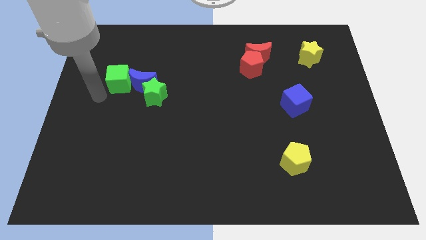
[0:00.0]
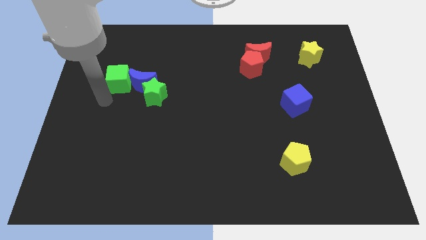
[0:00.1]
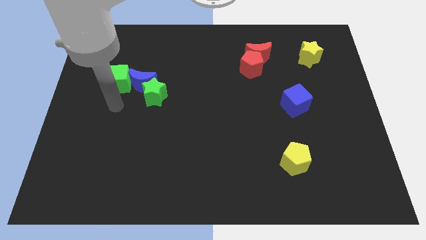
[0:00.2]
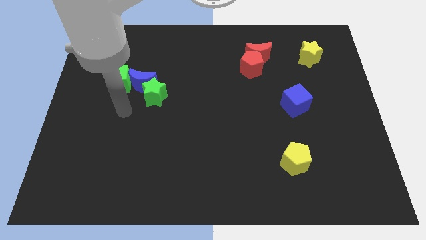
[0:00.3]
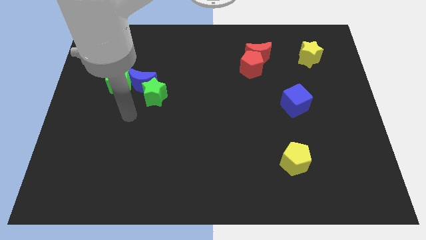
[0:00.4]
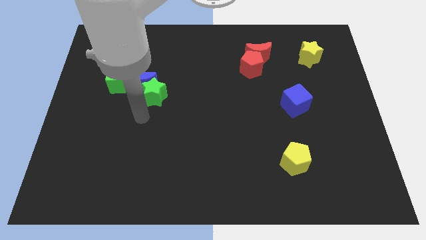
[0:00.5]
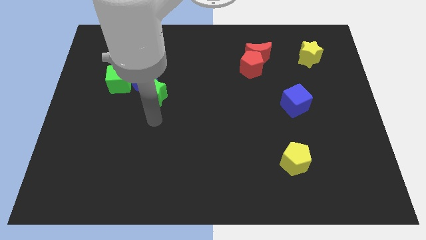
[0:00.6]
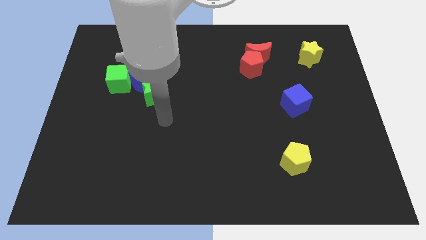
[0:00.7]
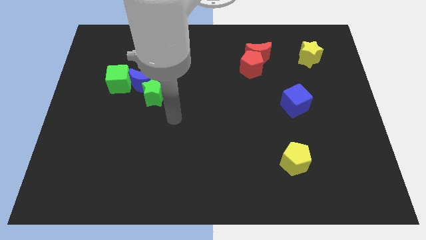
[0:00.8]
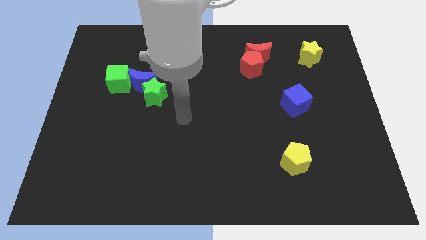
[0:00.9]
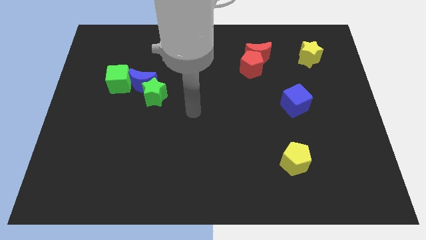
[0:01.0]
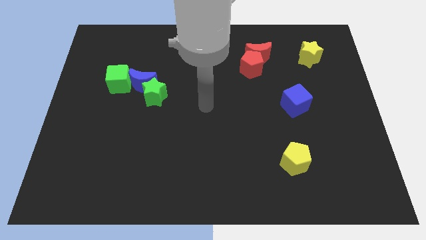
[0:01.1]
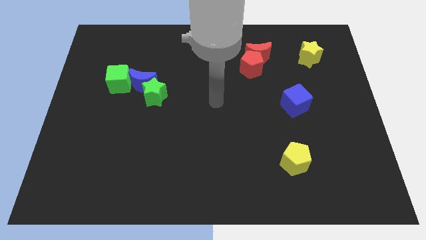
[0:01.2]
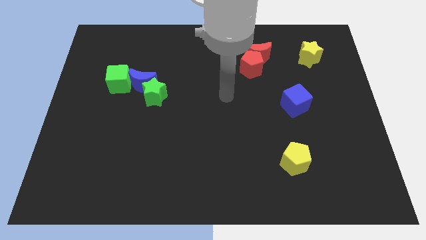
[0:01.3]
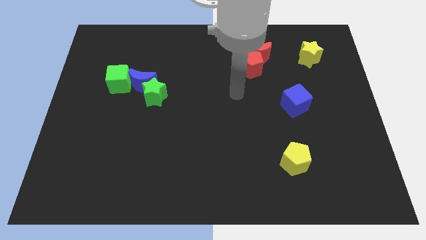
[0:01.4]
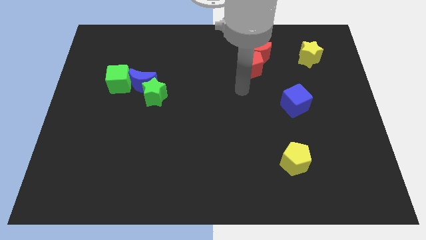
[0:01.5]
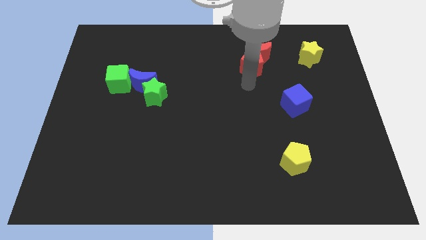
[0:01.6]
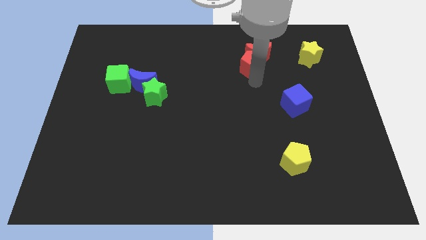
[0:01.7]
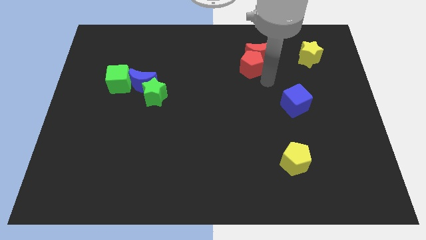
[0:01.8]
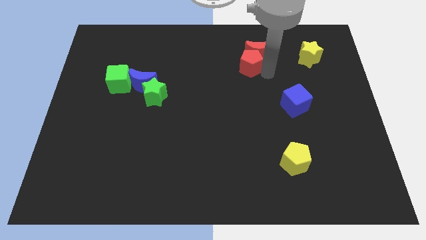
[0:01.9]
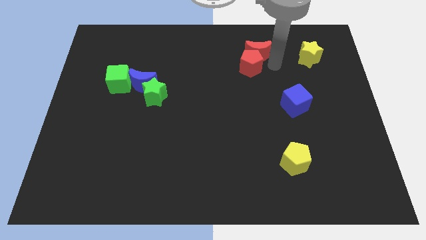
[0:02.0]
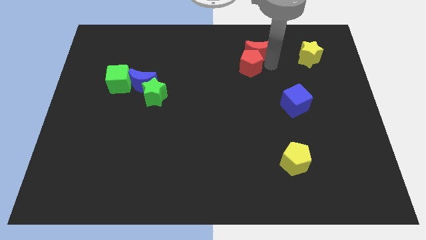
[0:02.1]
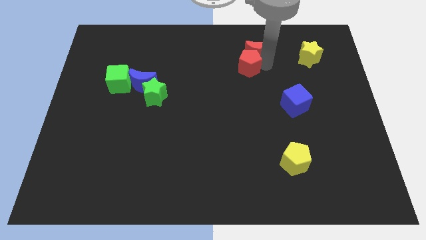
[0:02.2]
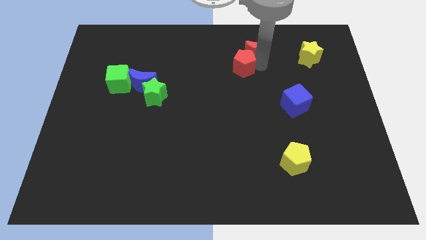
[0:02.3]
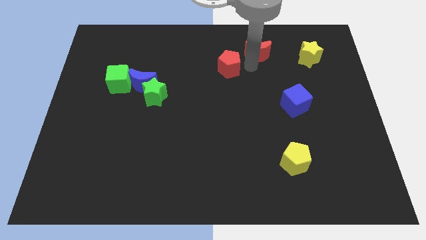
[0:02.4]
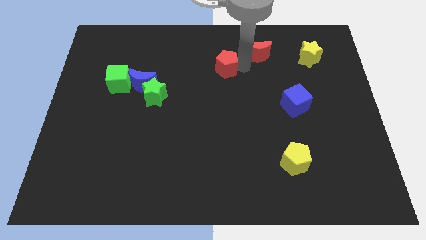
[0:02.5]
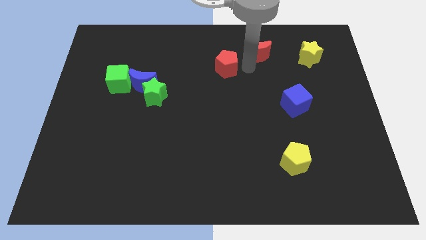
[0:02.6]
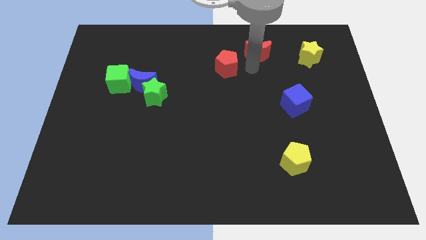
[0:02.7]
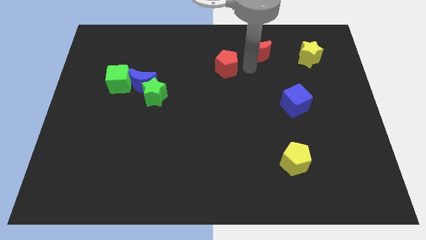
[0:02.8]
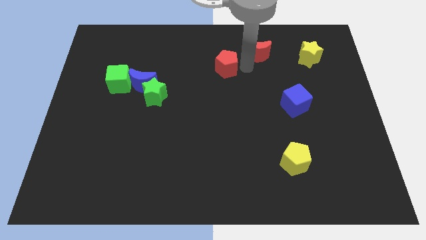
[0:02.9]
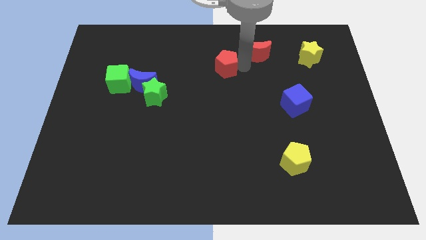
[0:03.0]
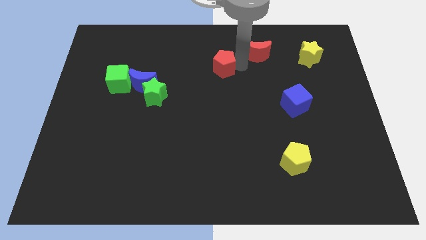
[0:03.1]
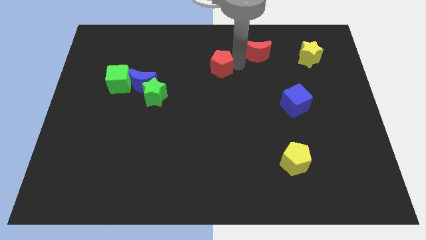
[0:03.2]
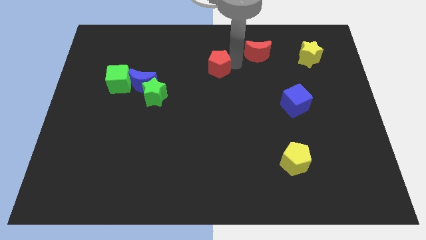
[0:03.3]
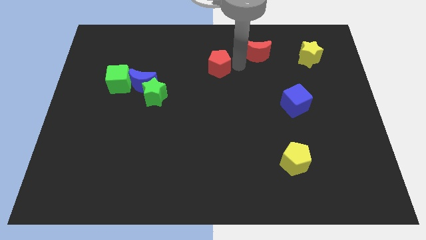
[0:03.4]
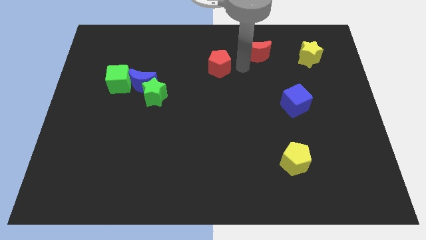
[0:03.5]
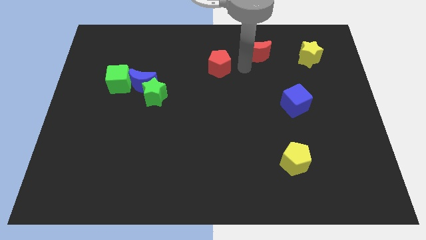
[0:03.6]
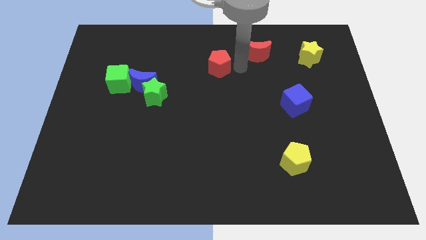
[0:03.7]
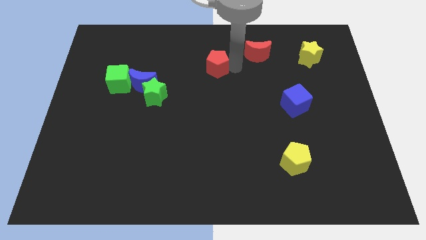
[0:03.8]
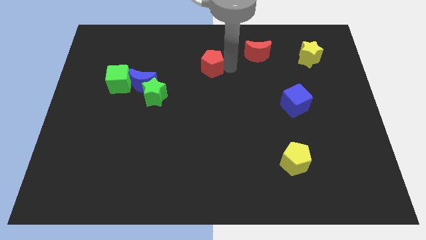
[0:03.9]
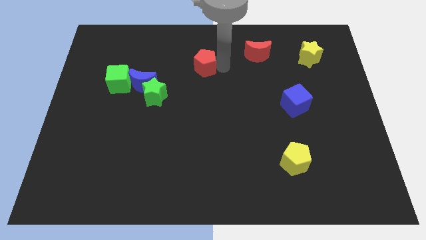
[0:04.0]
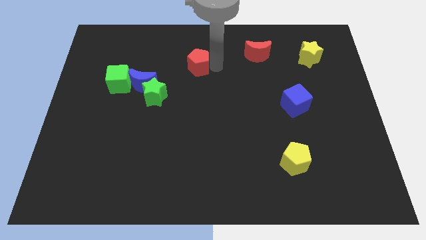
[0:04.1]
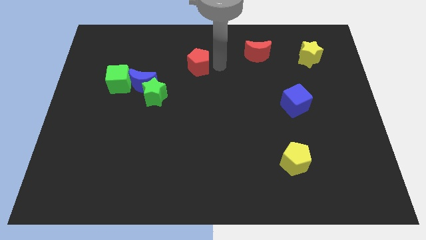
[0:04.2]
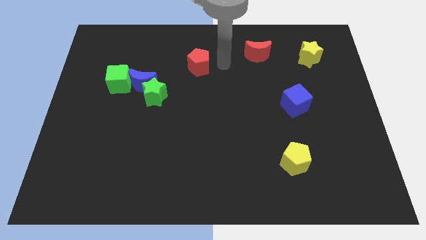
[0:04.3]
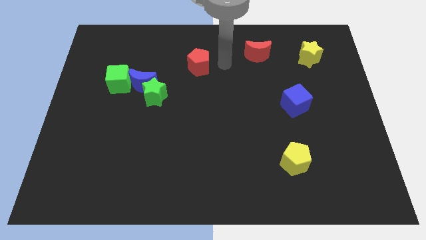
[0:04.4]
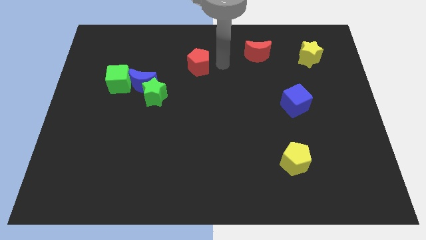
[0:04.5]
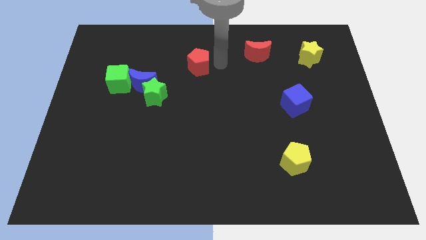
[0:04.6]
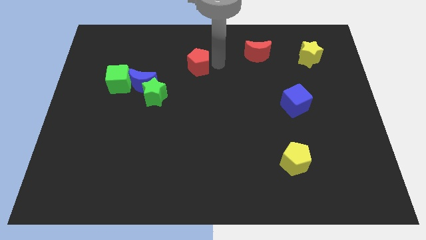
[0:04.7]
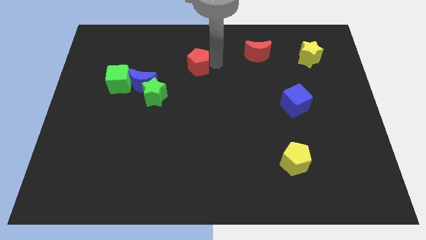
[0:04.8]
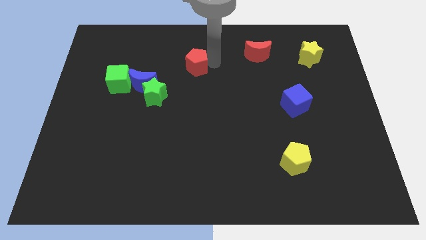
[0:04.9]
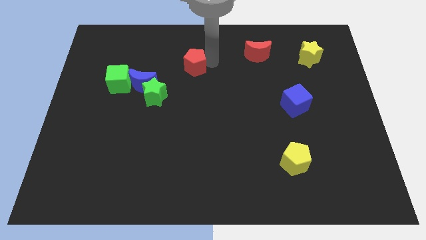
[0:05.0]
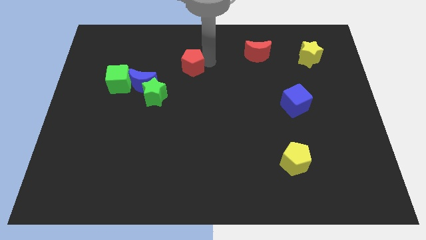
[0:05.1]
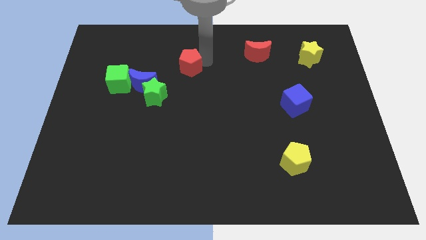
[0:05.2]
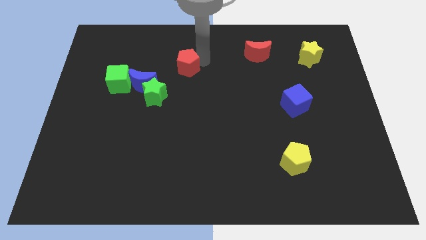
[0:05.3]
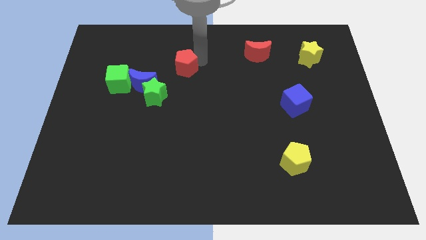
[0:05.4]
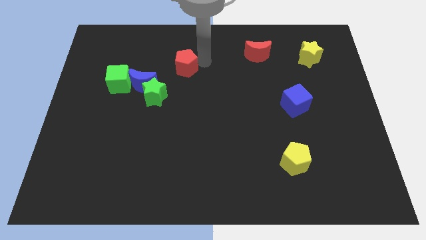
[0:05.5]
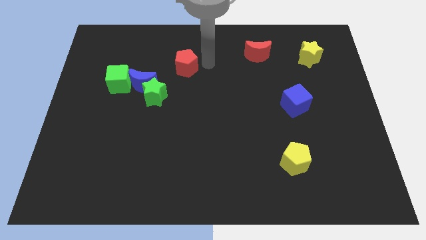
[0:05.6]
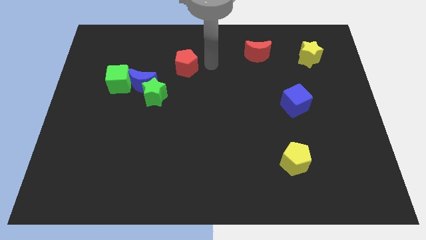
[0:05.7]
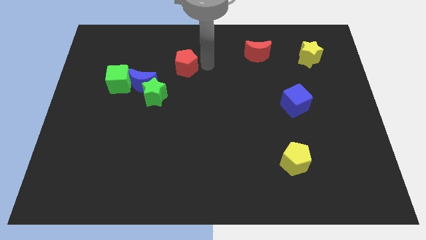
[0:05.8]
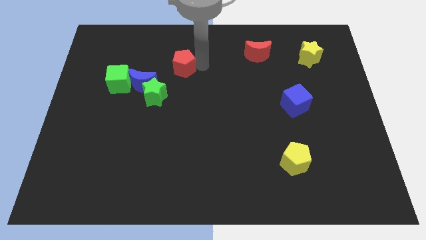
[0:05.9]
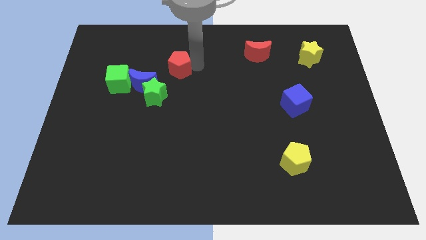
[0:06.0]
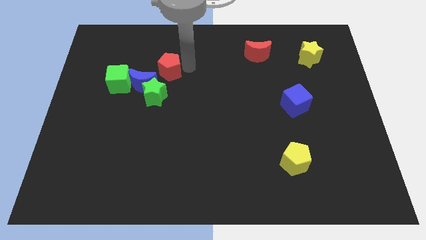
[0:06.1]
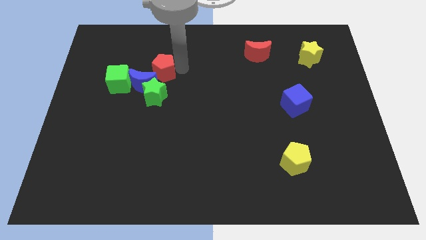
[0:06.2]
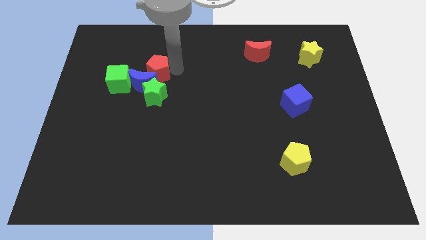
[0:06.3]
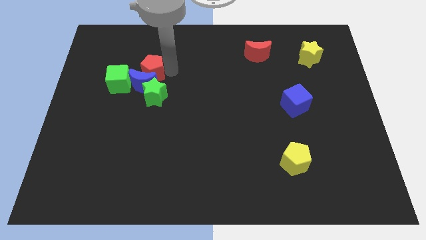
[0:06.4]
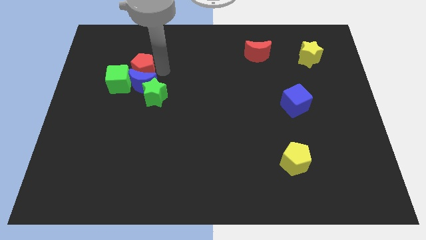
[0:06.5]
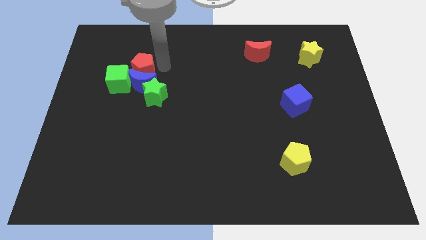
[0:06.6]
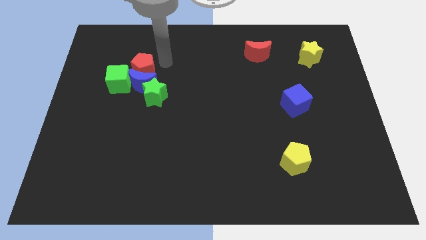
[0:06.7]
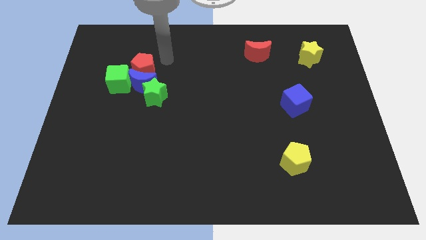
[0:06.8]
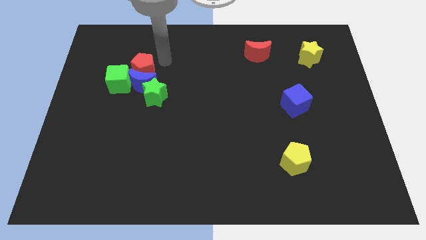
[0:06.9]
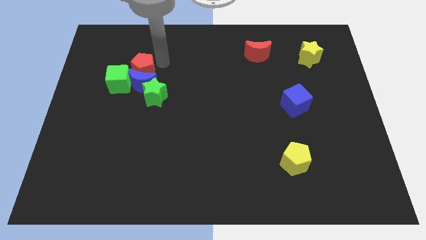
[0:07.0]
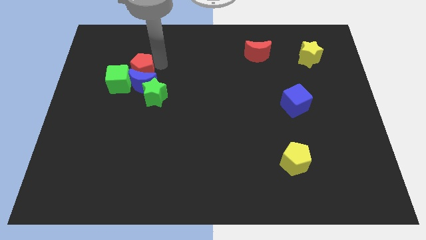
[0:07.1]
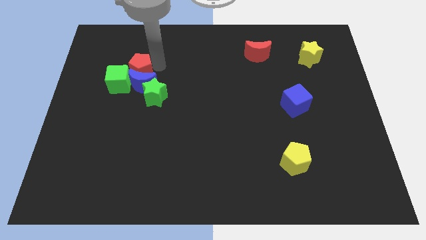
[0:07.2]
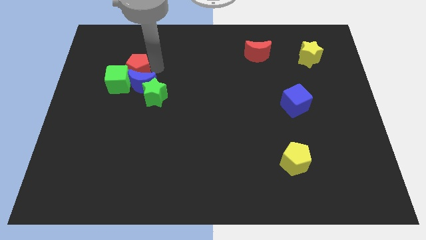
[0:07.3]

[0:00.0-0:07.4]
move the red pentagon towards the green cube
